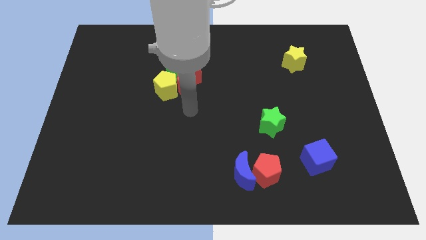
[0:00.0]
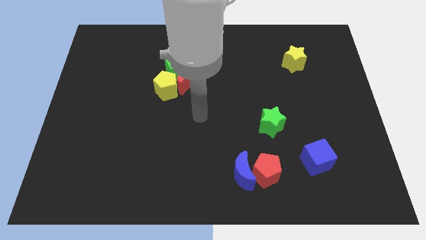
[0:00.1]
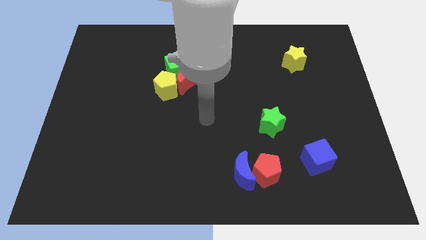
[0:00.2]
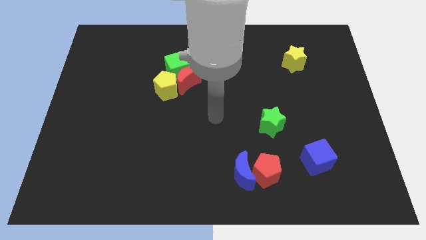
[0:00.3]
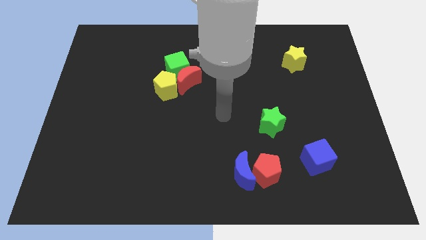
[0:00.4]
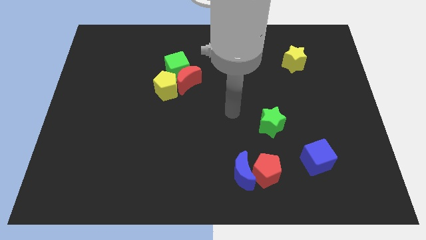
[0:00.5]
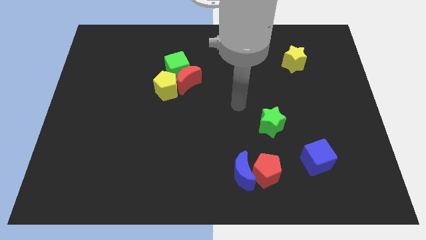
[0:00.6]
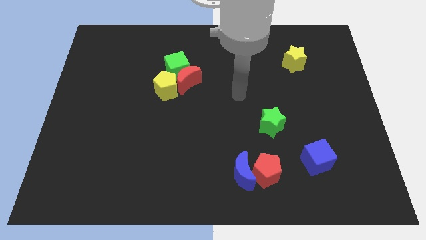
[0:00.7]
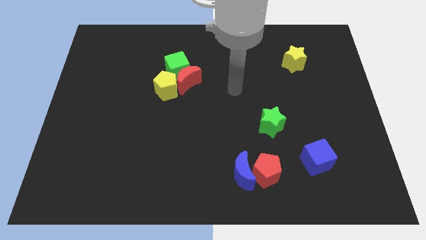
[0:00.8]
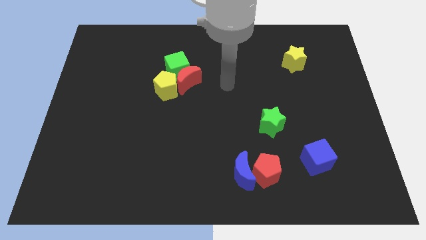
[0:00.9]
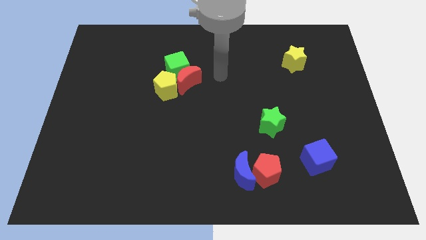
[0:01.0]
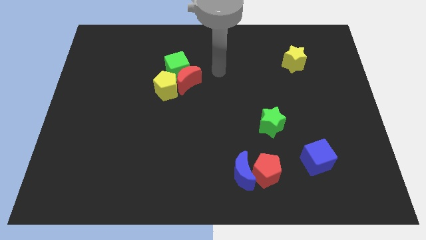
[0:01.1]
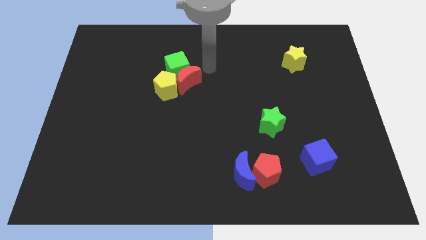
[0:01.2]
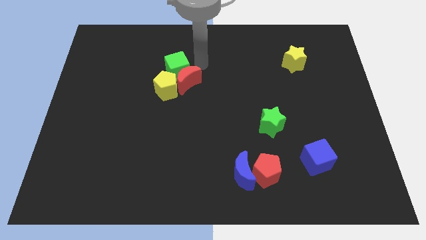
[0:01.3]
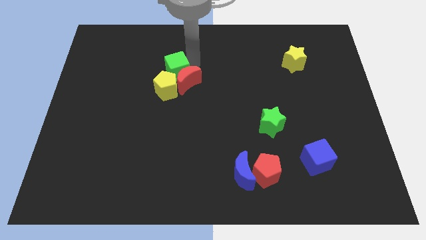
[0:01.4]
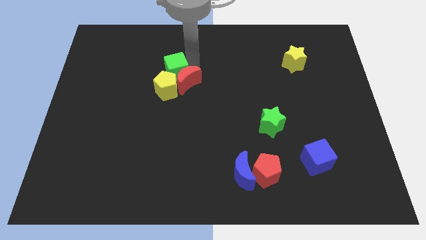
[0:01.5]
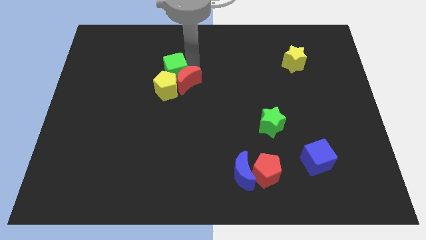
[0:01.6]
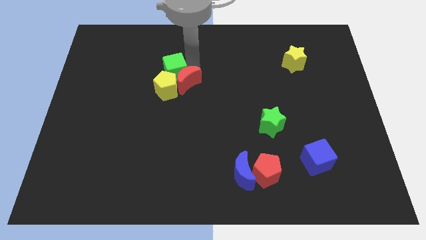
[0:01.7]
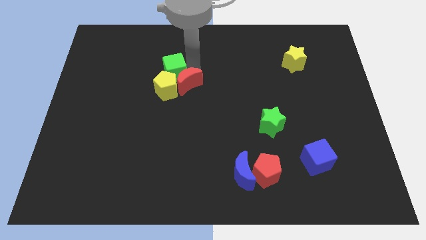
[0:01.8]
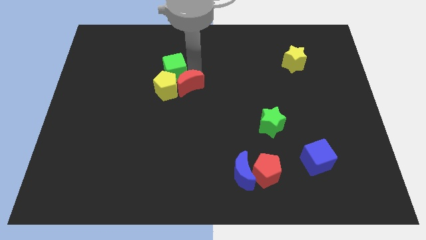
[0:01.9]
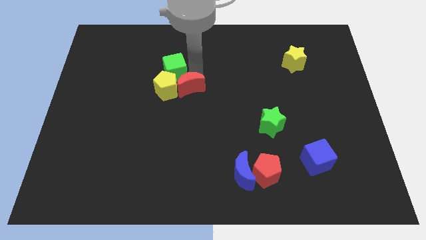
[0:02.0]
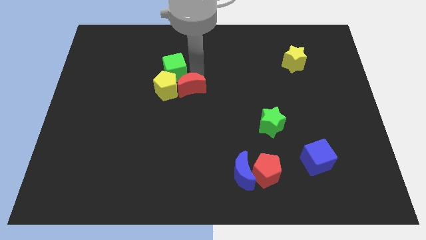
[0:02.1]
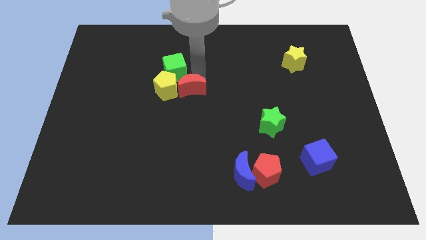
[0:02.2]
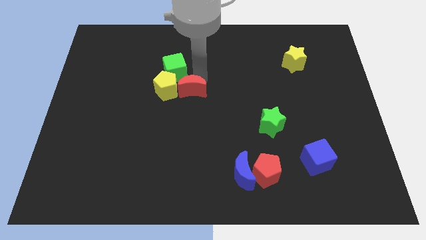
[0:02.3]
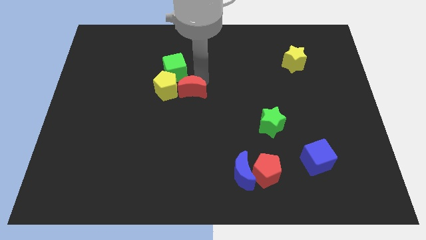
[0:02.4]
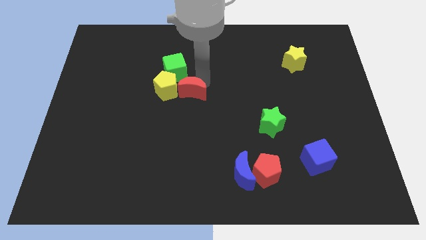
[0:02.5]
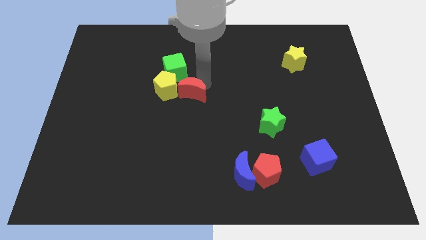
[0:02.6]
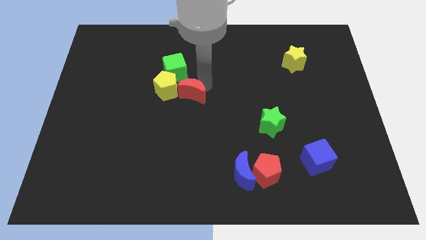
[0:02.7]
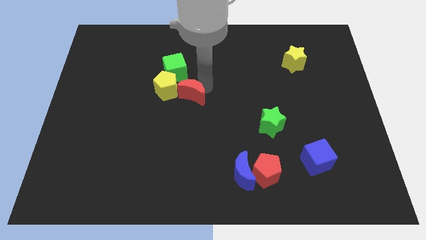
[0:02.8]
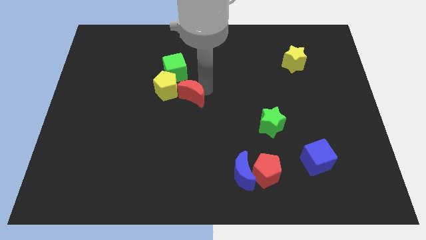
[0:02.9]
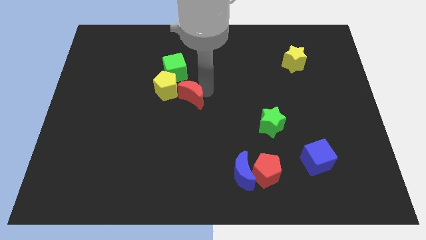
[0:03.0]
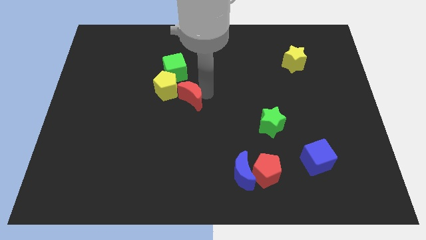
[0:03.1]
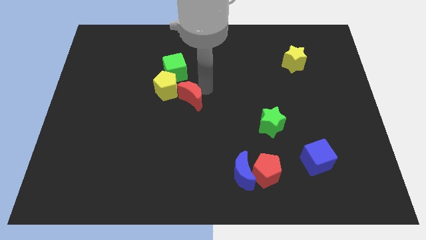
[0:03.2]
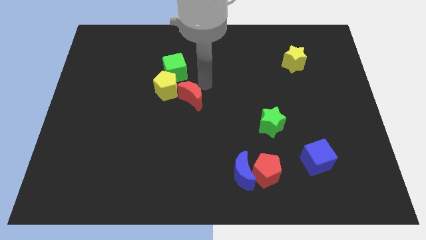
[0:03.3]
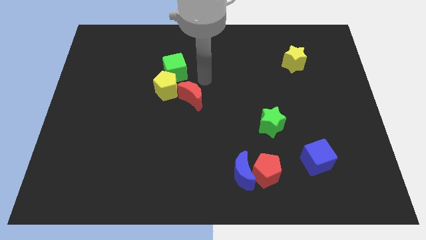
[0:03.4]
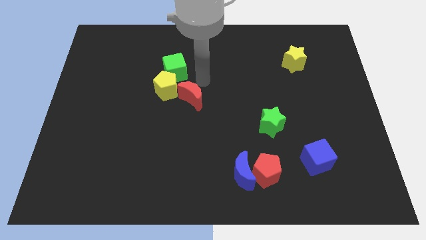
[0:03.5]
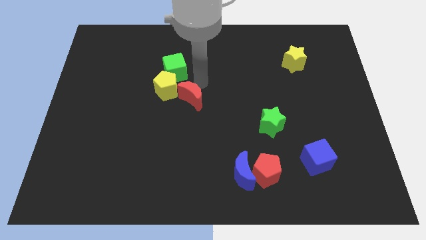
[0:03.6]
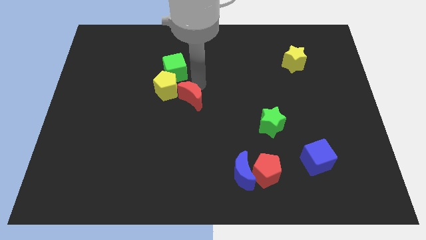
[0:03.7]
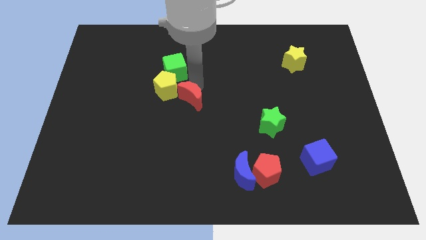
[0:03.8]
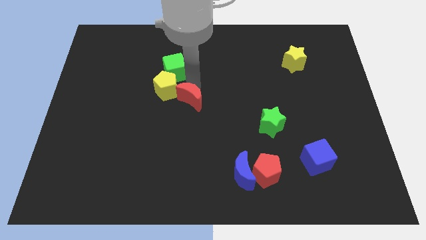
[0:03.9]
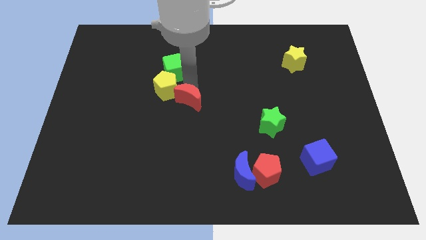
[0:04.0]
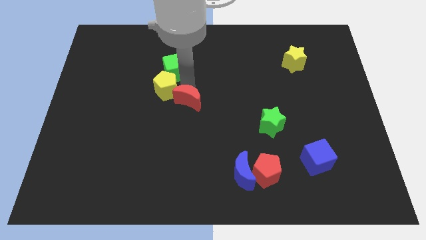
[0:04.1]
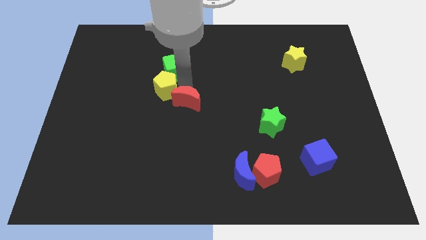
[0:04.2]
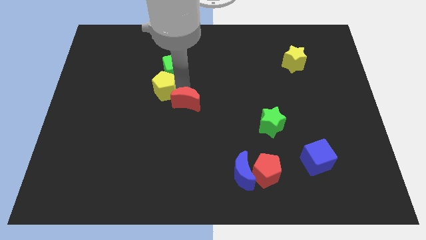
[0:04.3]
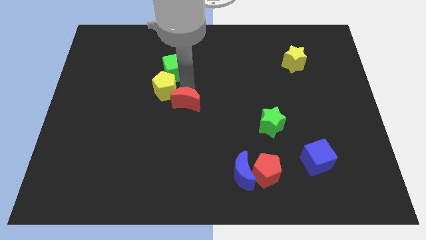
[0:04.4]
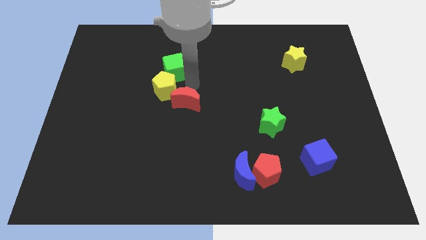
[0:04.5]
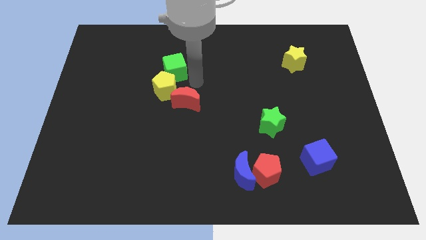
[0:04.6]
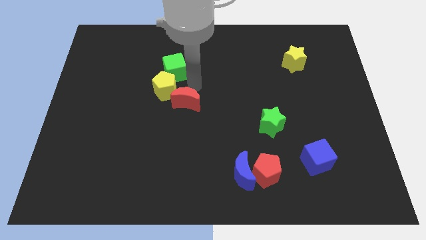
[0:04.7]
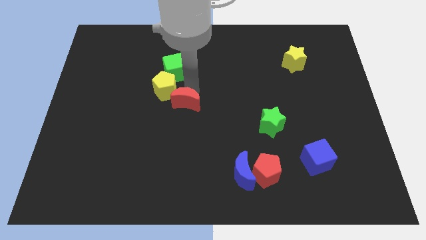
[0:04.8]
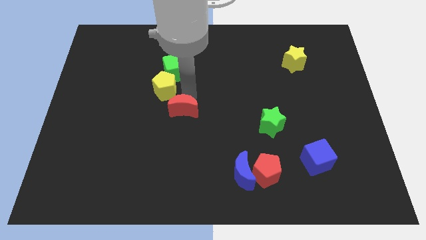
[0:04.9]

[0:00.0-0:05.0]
move the red moon down slightly

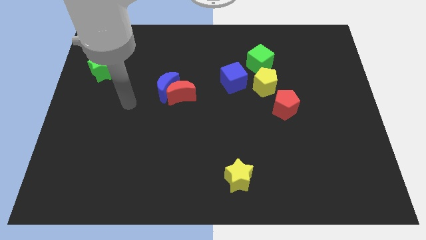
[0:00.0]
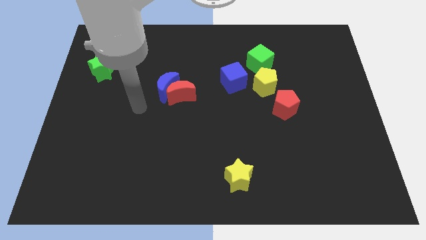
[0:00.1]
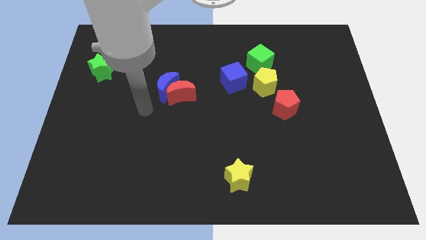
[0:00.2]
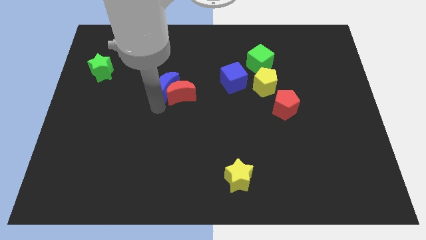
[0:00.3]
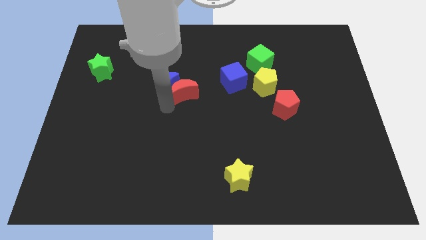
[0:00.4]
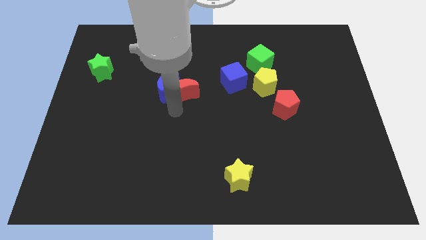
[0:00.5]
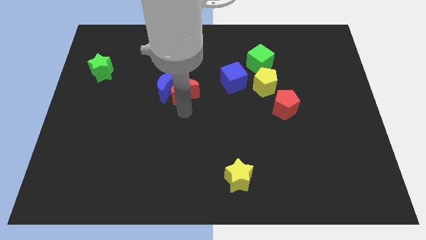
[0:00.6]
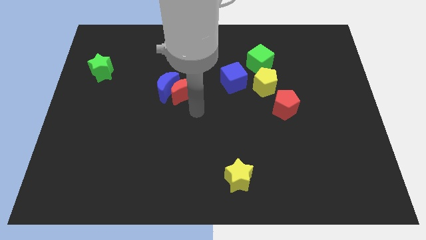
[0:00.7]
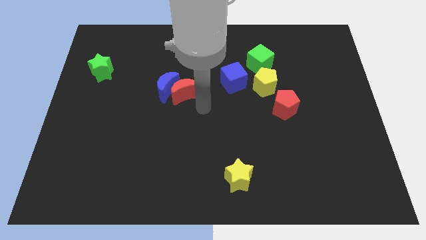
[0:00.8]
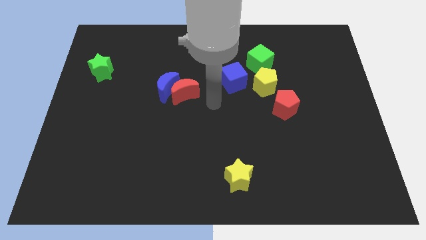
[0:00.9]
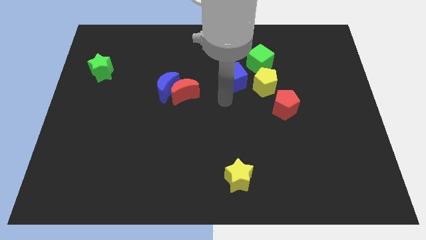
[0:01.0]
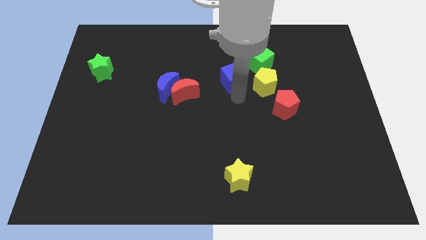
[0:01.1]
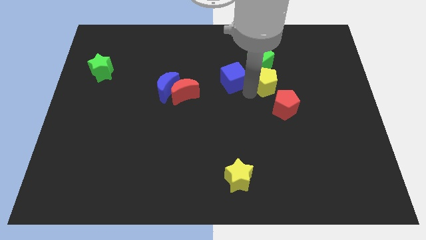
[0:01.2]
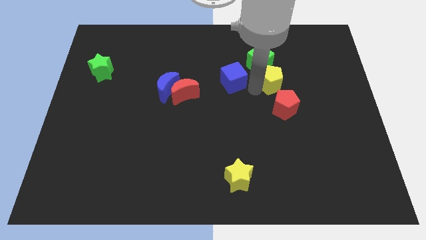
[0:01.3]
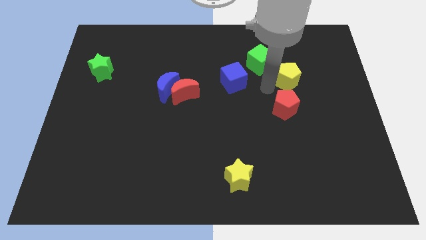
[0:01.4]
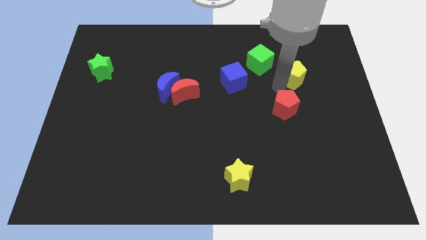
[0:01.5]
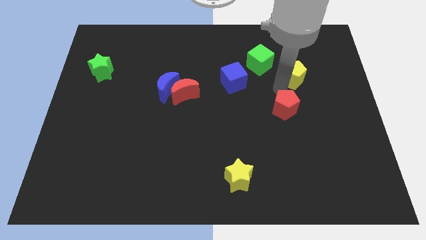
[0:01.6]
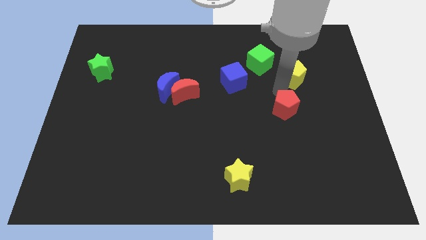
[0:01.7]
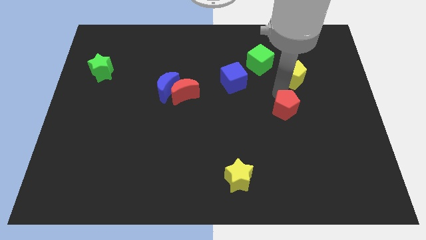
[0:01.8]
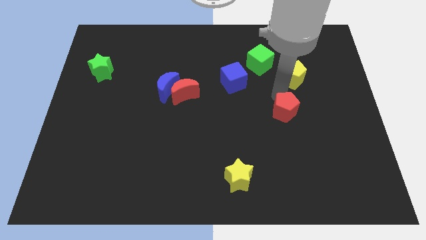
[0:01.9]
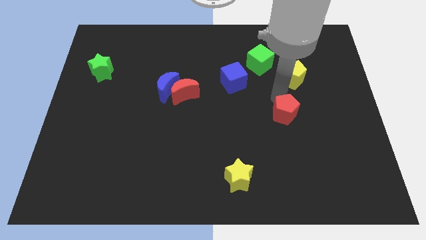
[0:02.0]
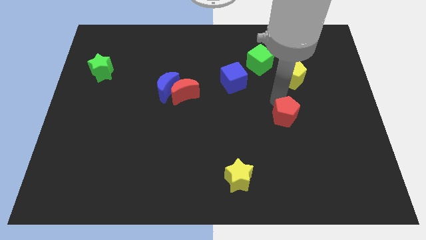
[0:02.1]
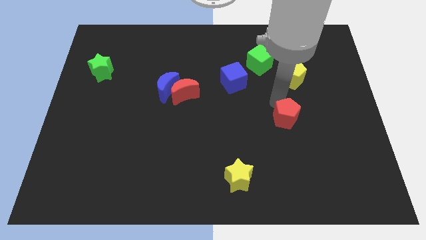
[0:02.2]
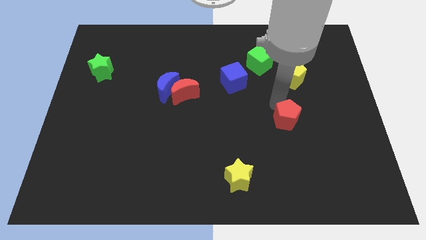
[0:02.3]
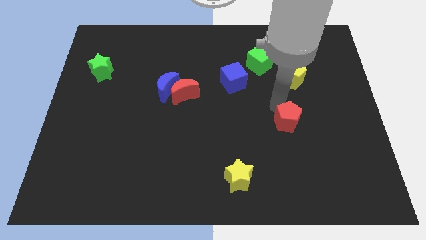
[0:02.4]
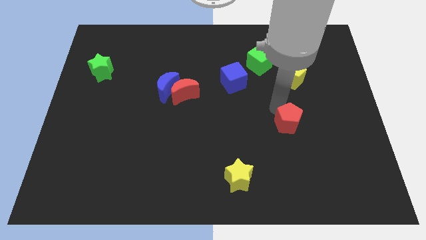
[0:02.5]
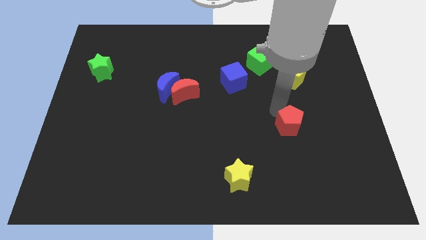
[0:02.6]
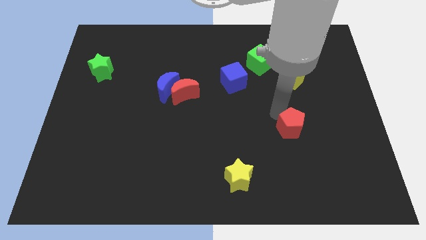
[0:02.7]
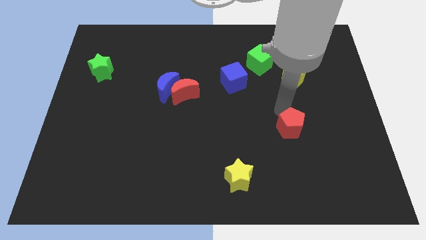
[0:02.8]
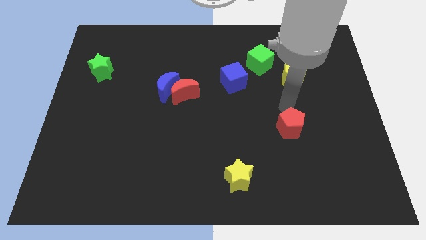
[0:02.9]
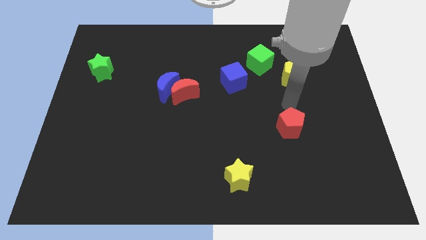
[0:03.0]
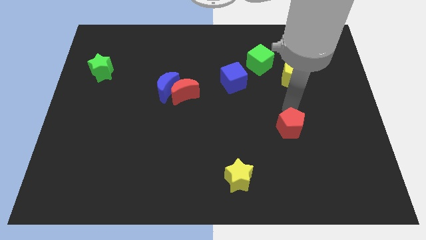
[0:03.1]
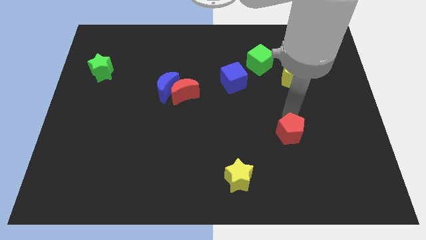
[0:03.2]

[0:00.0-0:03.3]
slightly slide the red pentagon down
